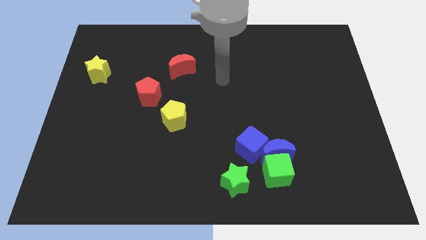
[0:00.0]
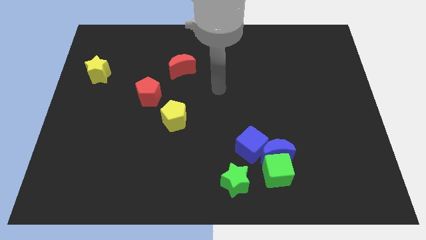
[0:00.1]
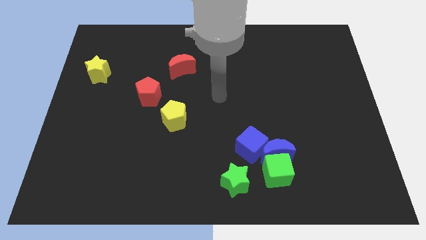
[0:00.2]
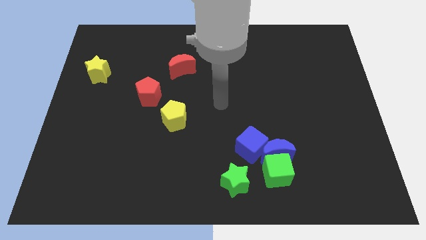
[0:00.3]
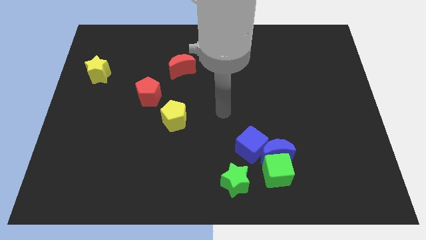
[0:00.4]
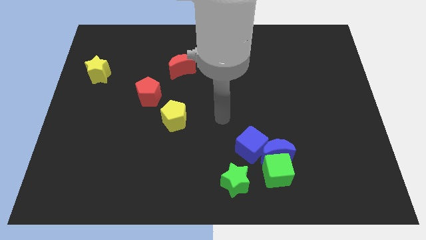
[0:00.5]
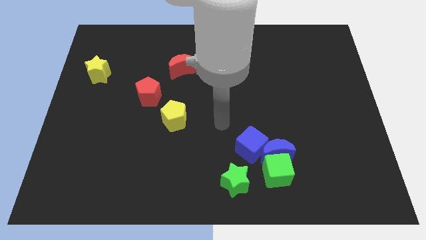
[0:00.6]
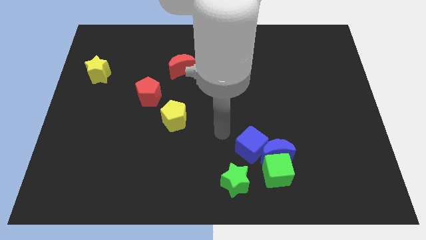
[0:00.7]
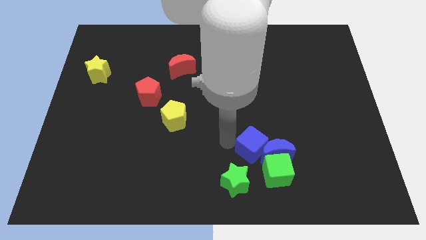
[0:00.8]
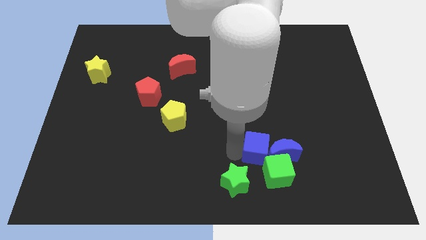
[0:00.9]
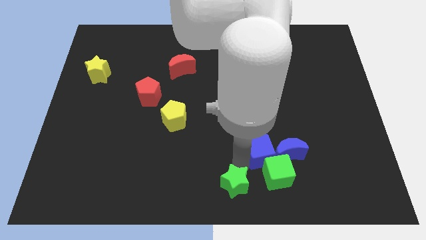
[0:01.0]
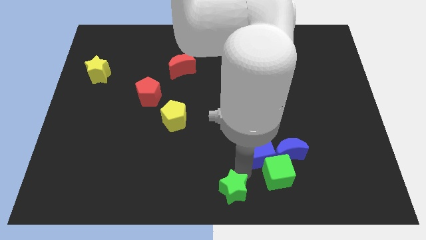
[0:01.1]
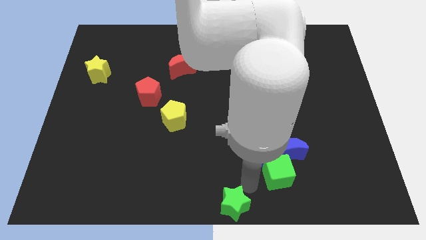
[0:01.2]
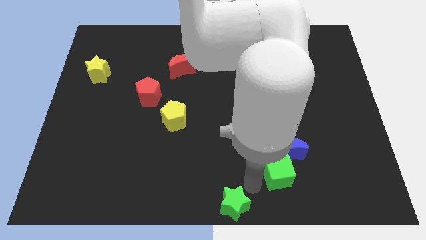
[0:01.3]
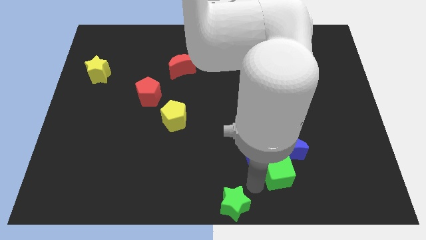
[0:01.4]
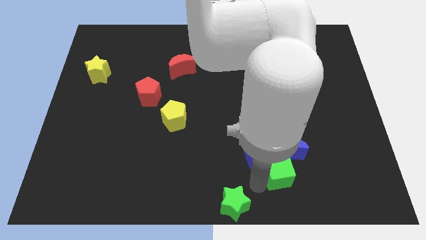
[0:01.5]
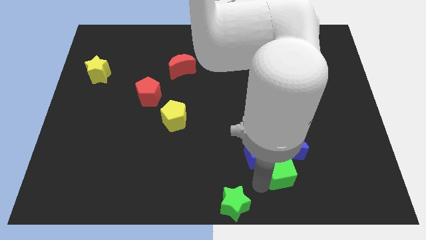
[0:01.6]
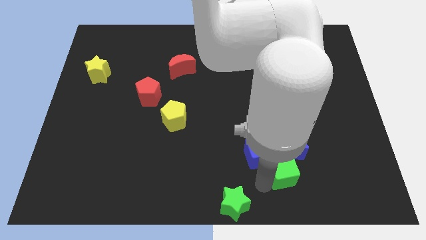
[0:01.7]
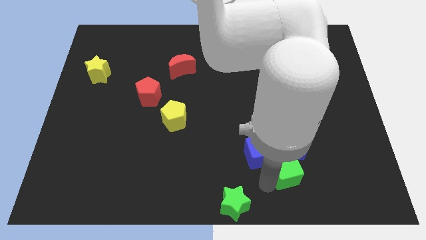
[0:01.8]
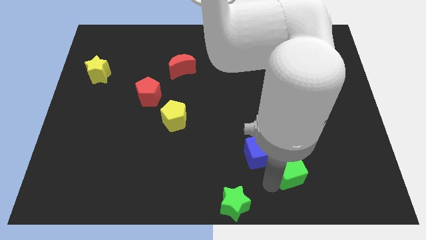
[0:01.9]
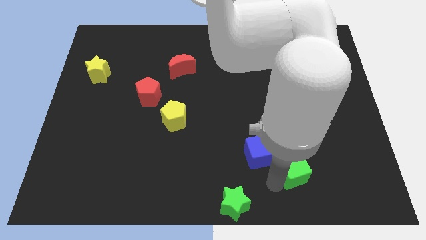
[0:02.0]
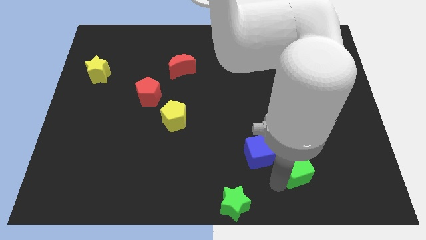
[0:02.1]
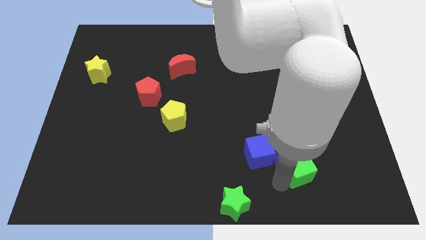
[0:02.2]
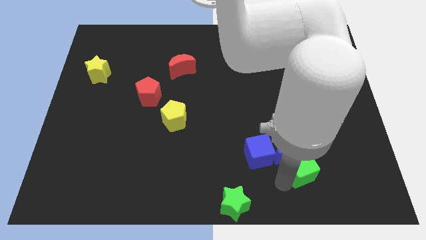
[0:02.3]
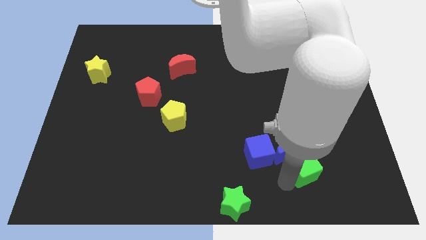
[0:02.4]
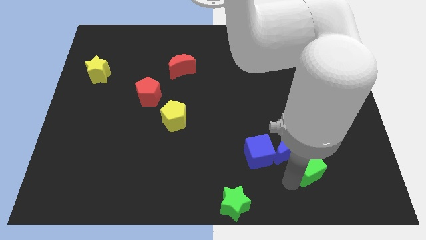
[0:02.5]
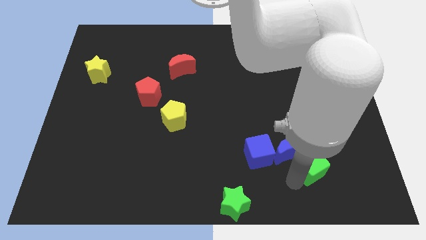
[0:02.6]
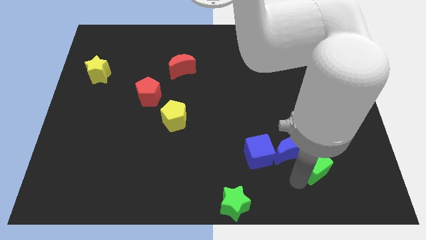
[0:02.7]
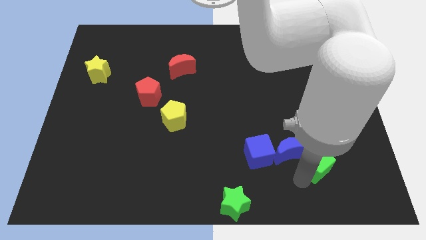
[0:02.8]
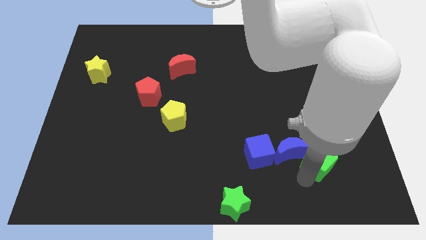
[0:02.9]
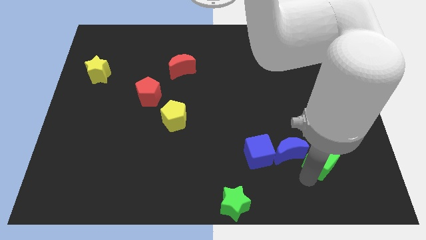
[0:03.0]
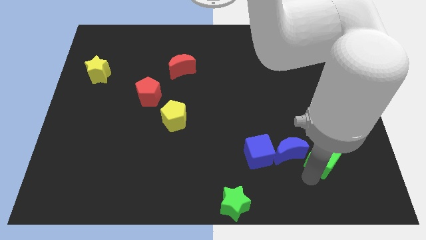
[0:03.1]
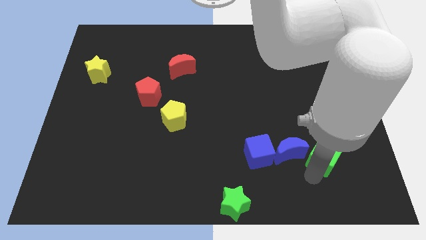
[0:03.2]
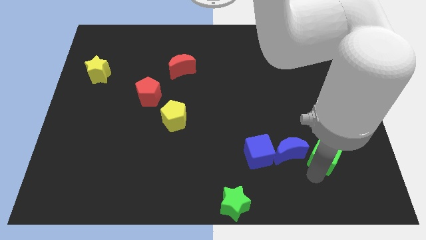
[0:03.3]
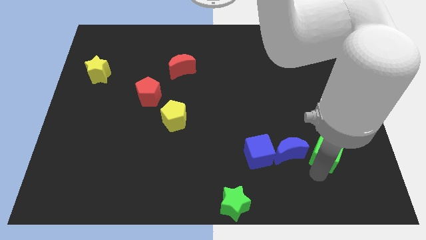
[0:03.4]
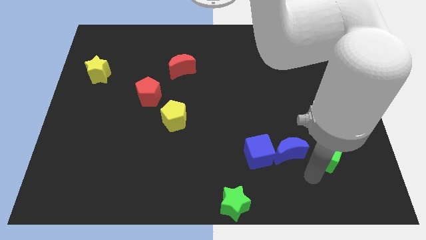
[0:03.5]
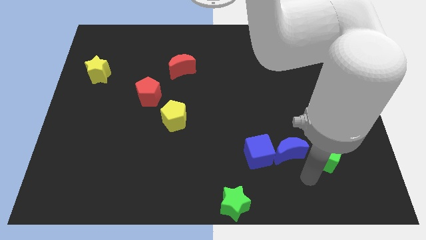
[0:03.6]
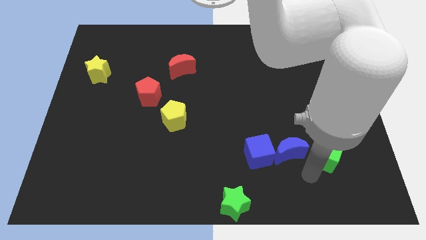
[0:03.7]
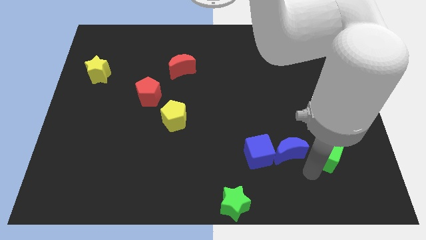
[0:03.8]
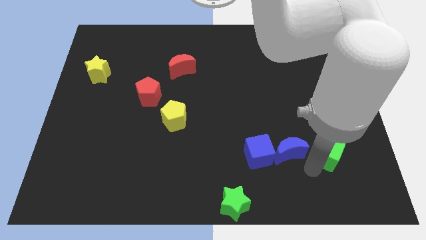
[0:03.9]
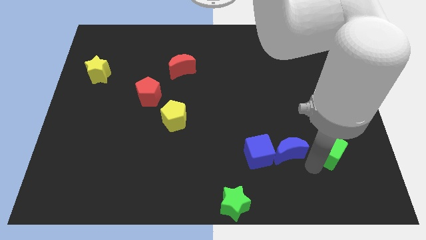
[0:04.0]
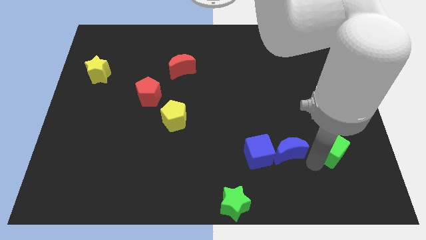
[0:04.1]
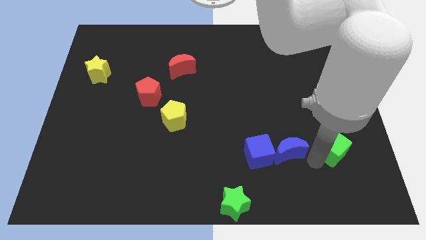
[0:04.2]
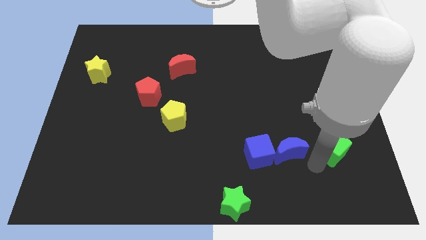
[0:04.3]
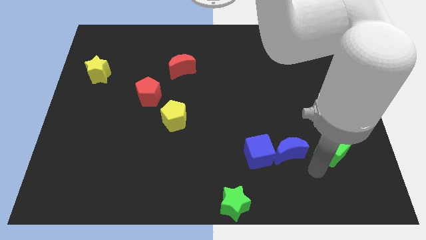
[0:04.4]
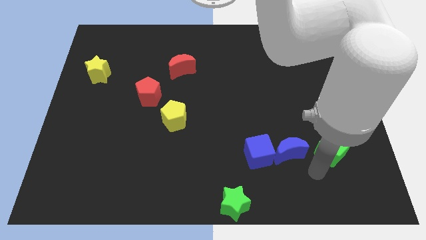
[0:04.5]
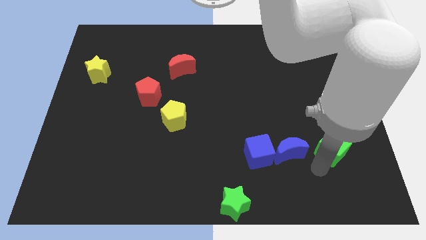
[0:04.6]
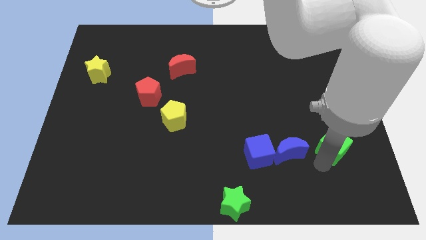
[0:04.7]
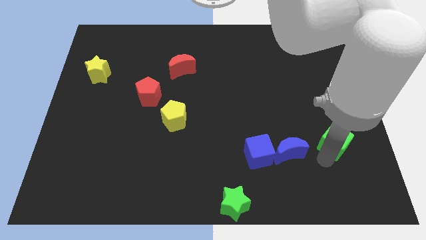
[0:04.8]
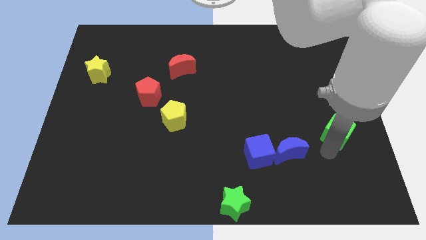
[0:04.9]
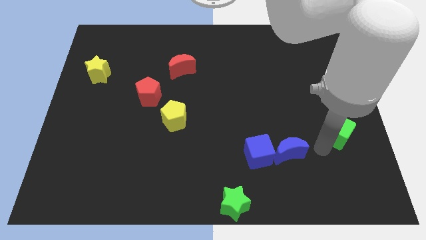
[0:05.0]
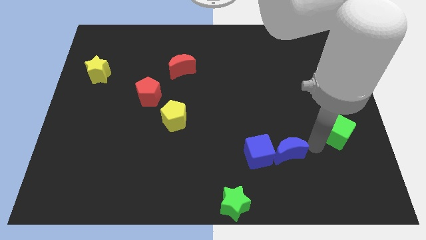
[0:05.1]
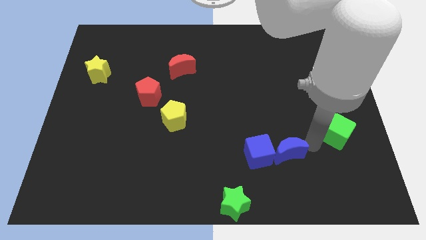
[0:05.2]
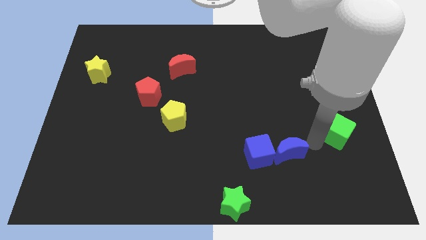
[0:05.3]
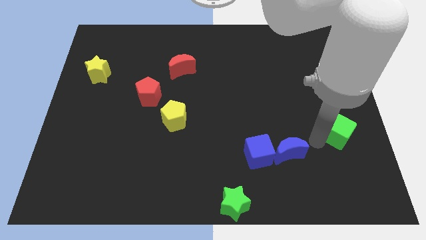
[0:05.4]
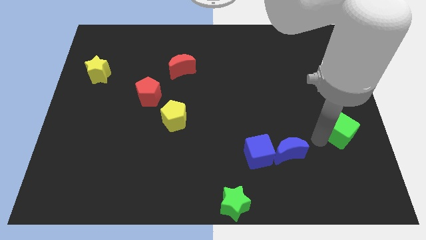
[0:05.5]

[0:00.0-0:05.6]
slide the green cube to the right side

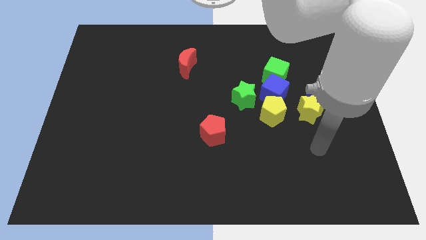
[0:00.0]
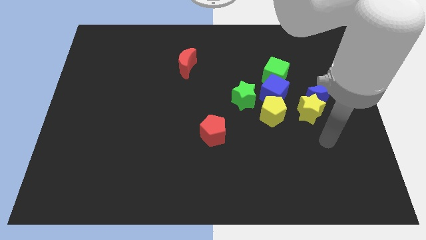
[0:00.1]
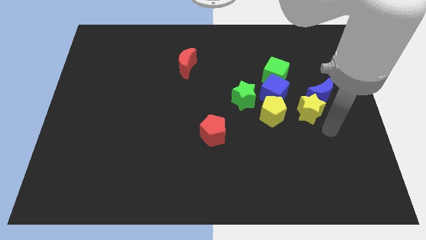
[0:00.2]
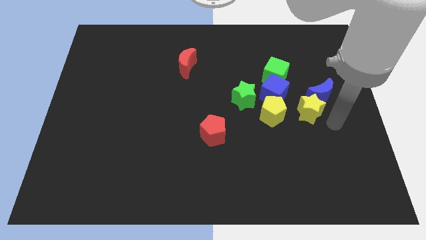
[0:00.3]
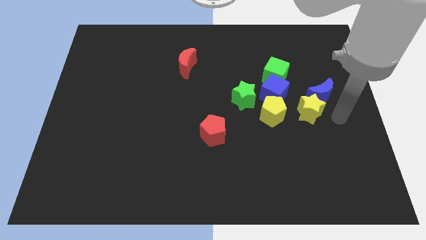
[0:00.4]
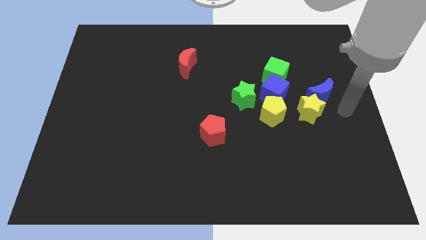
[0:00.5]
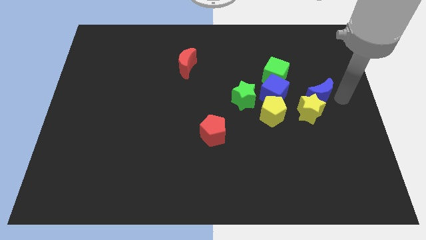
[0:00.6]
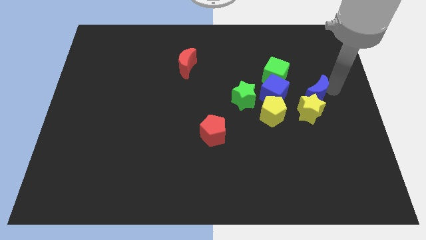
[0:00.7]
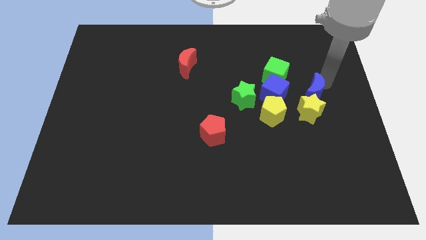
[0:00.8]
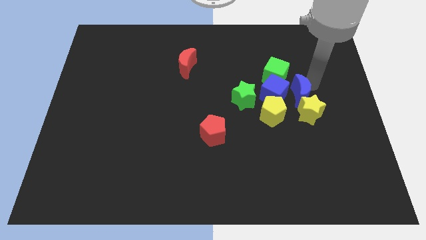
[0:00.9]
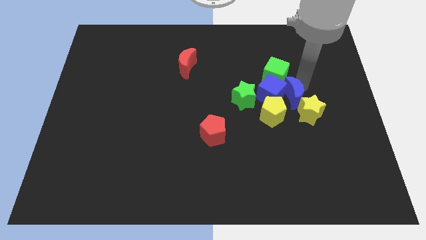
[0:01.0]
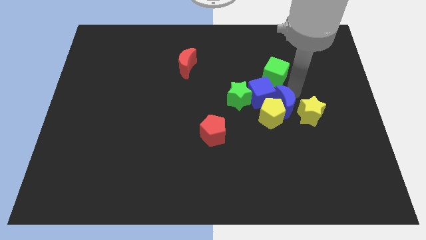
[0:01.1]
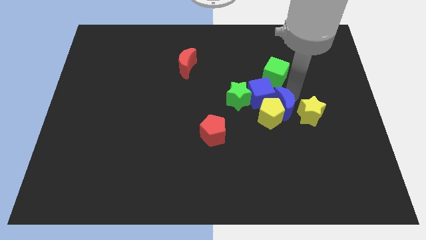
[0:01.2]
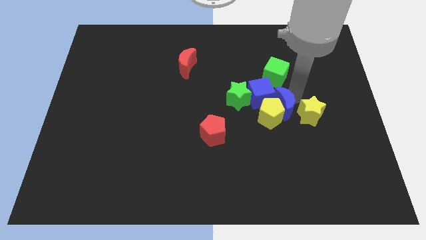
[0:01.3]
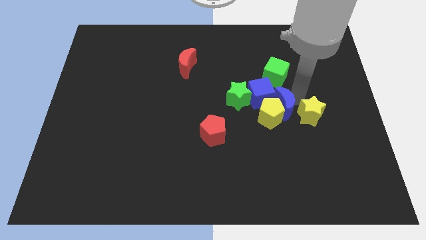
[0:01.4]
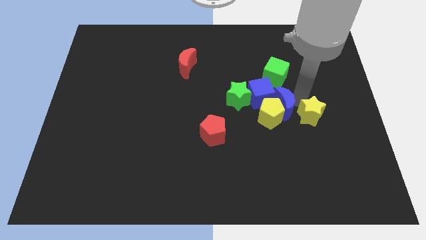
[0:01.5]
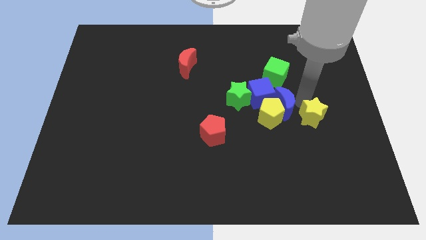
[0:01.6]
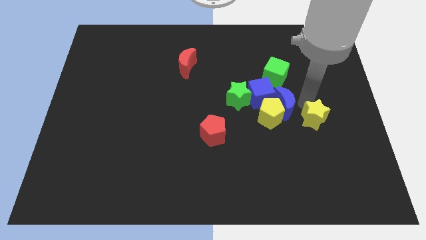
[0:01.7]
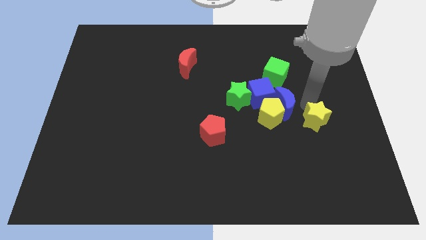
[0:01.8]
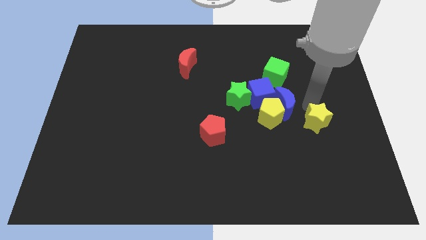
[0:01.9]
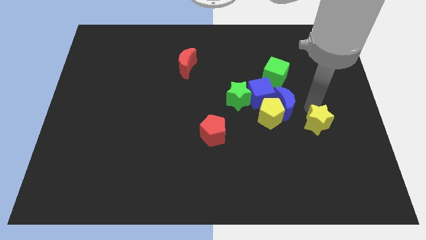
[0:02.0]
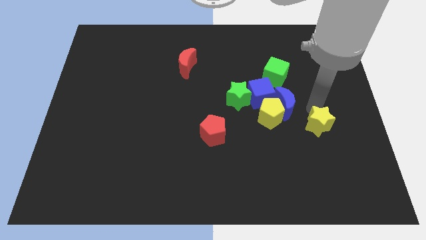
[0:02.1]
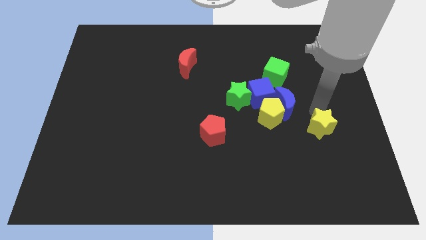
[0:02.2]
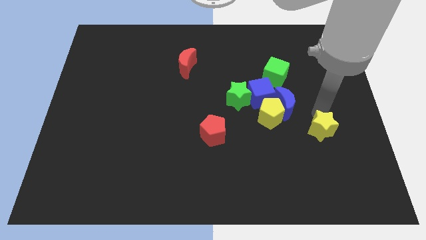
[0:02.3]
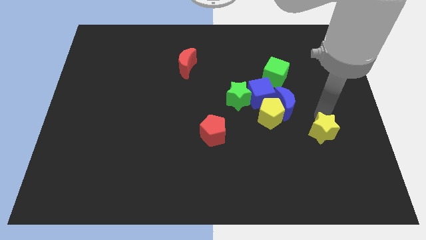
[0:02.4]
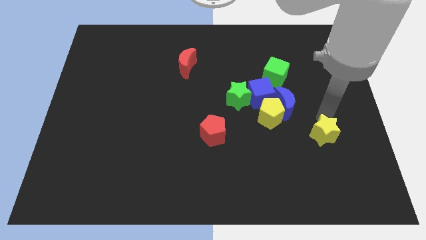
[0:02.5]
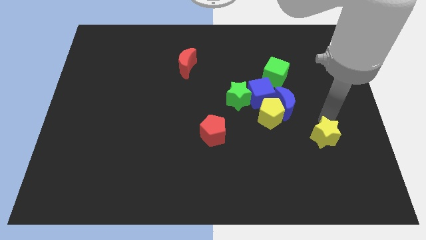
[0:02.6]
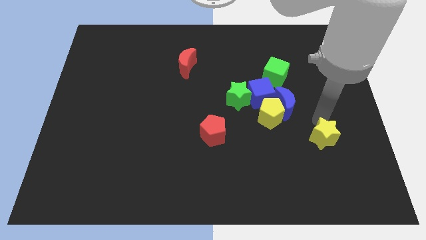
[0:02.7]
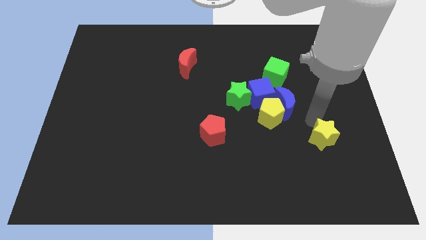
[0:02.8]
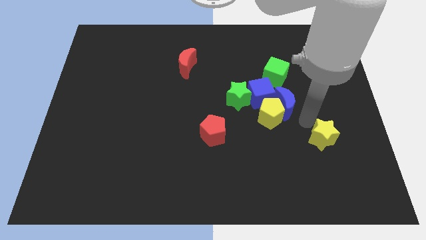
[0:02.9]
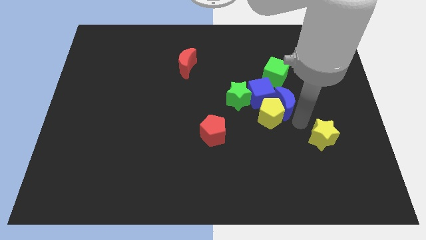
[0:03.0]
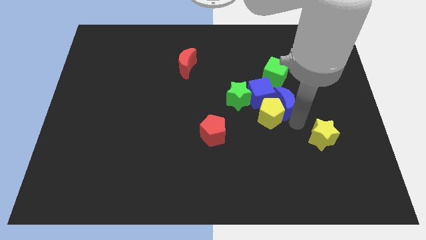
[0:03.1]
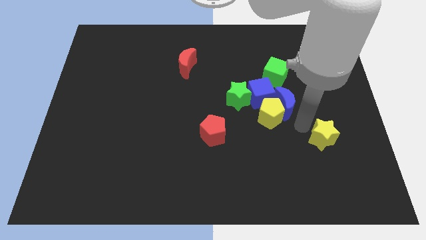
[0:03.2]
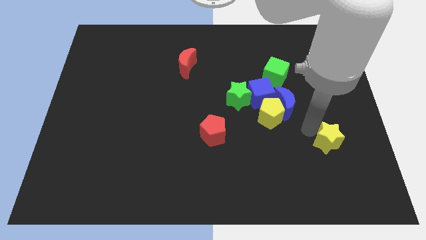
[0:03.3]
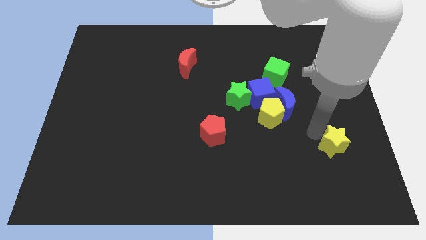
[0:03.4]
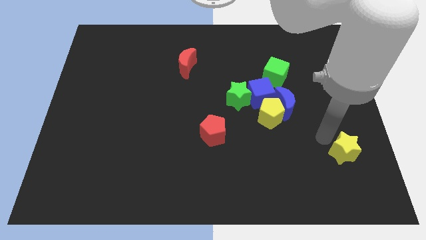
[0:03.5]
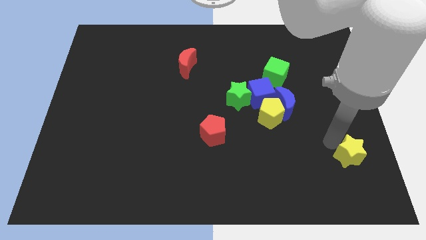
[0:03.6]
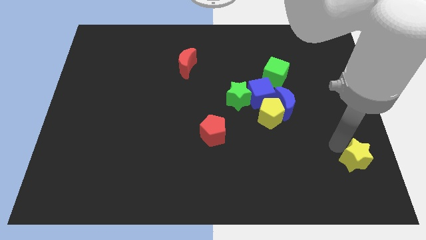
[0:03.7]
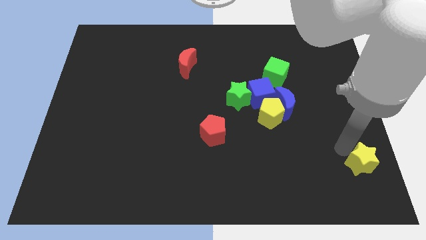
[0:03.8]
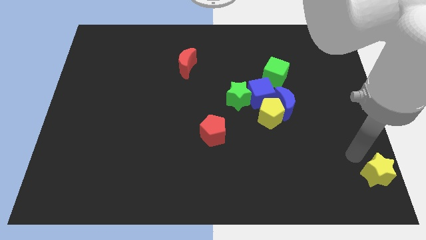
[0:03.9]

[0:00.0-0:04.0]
move the yellow star to the lower right corner
